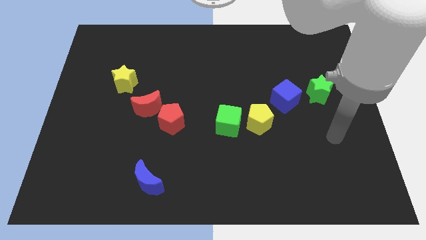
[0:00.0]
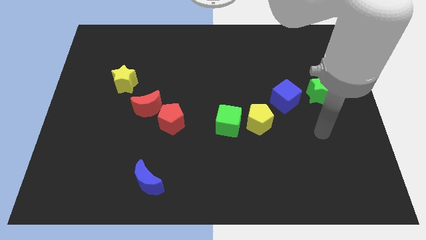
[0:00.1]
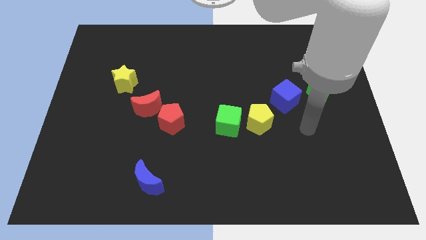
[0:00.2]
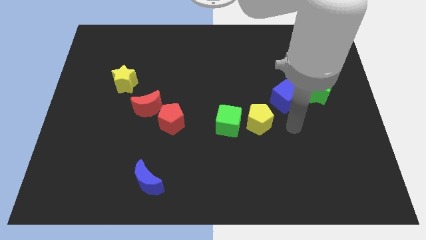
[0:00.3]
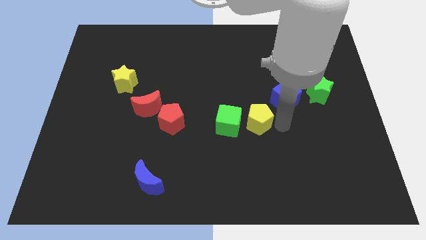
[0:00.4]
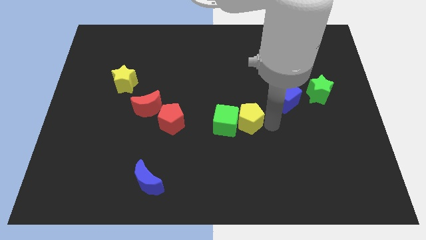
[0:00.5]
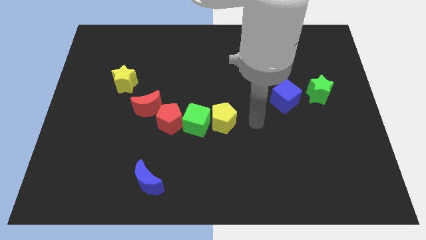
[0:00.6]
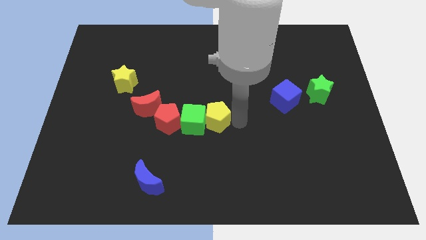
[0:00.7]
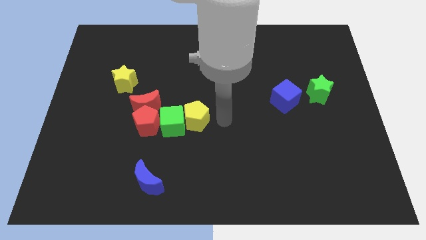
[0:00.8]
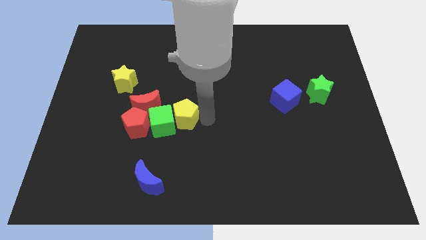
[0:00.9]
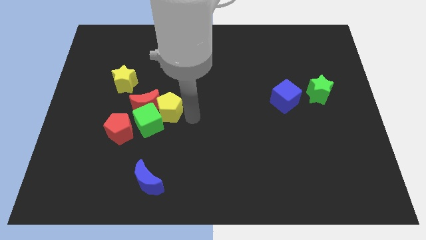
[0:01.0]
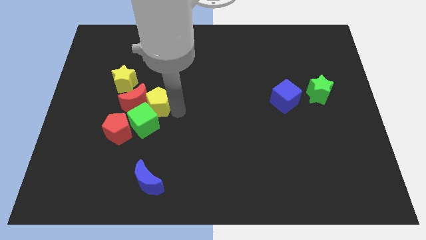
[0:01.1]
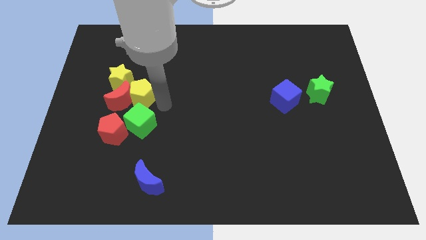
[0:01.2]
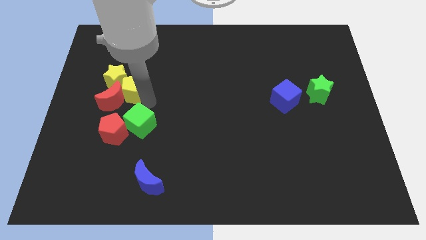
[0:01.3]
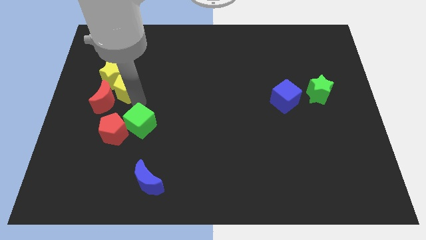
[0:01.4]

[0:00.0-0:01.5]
pull the green cube apart from the yellow pentagon

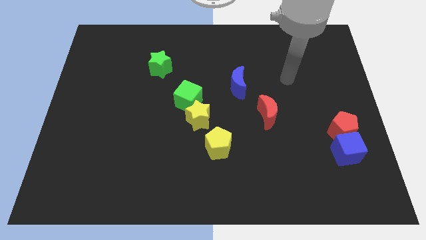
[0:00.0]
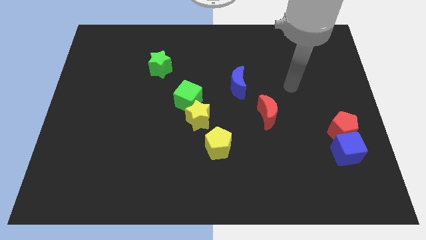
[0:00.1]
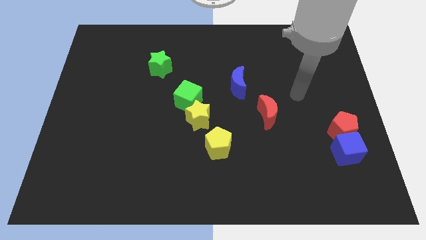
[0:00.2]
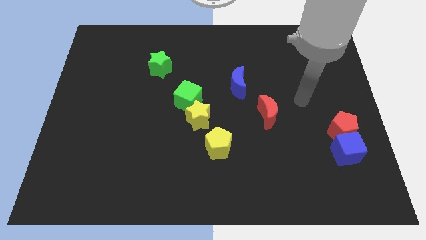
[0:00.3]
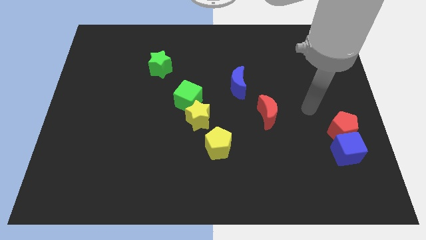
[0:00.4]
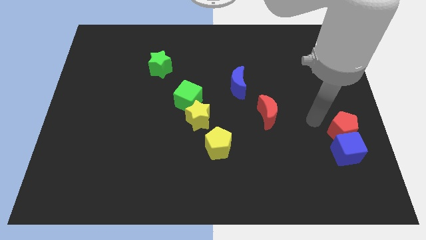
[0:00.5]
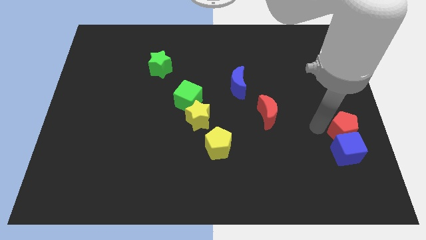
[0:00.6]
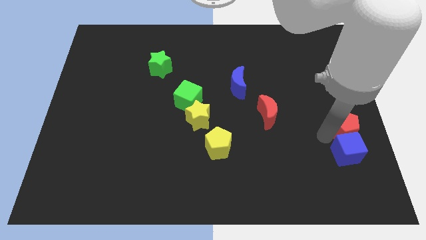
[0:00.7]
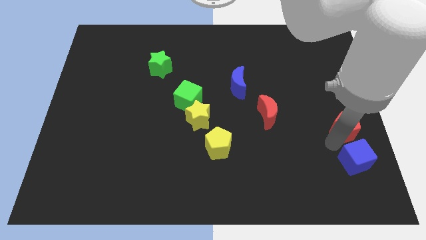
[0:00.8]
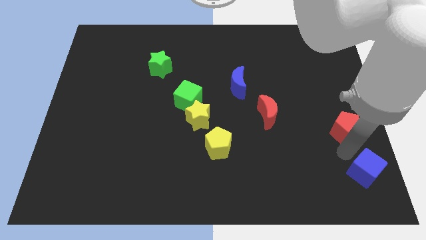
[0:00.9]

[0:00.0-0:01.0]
separate the red pentagon from the blue cube

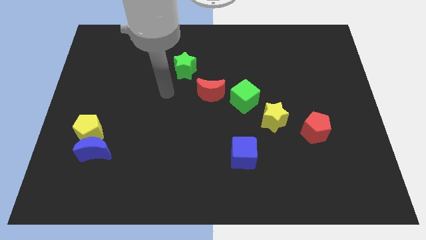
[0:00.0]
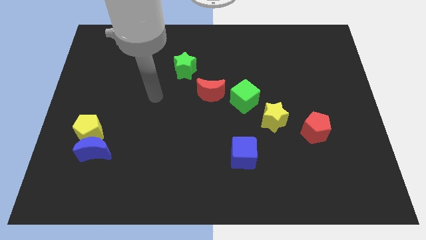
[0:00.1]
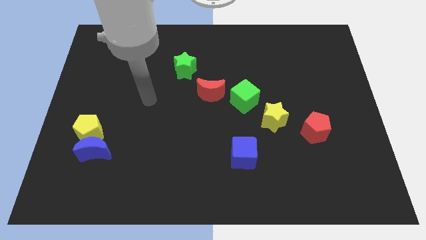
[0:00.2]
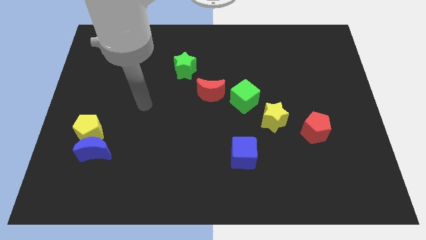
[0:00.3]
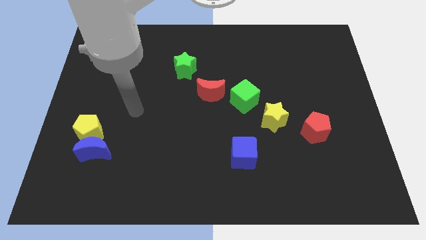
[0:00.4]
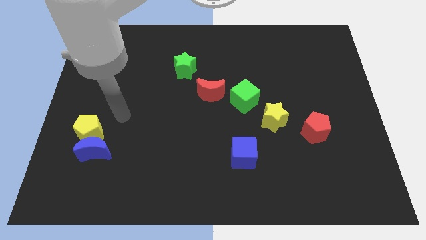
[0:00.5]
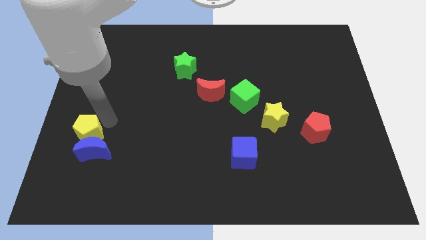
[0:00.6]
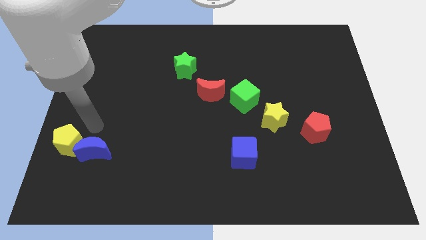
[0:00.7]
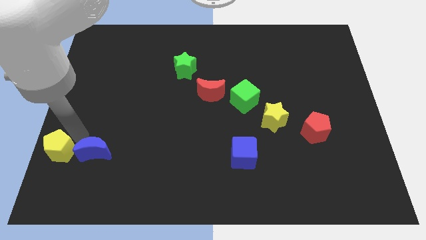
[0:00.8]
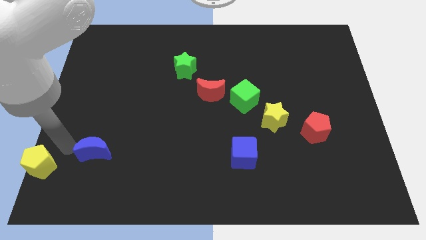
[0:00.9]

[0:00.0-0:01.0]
pull the blue moon apart from the yellow pentagon

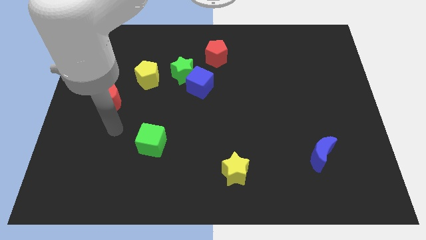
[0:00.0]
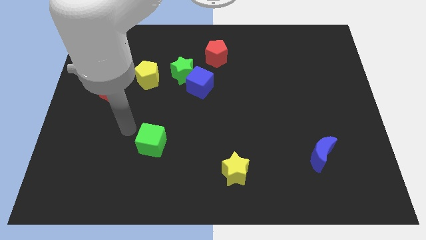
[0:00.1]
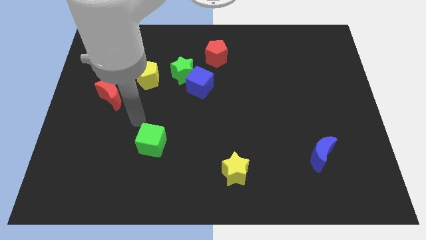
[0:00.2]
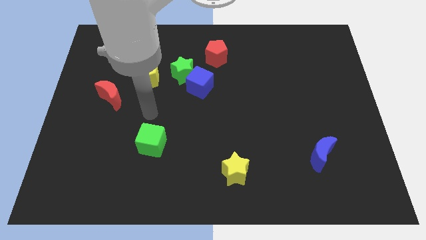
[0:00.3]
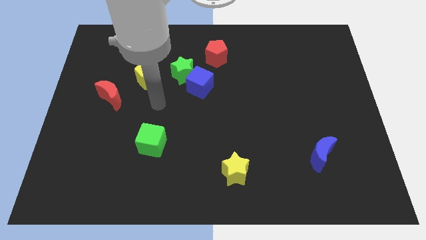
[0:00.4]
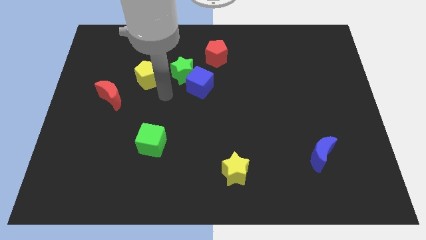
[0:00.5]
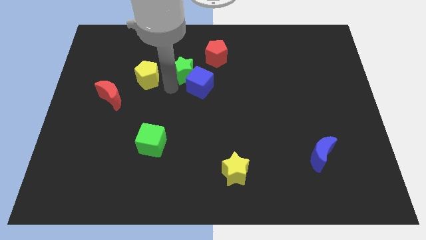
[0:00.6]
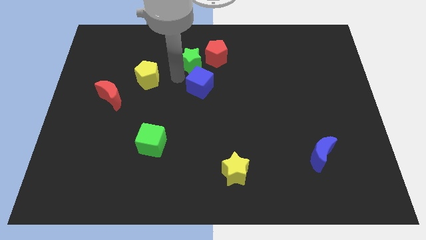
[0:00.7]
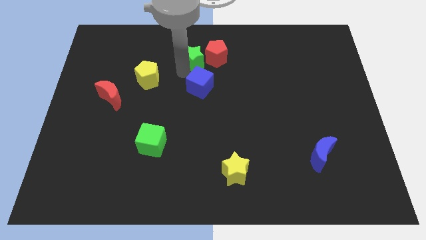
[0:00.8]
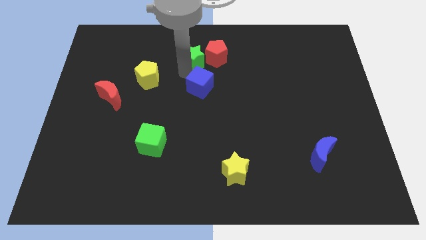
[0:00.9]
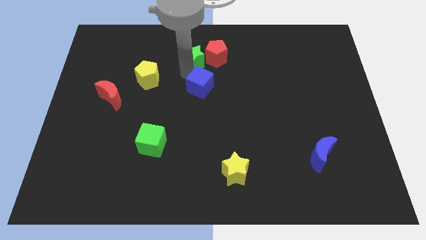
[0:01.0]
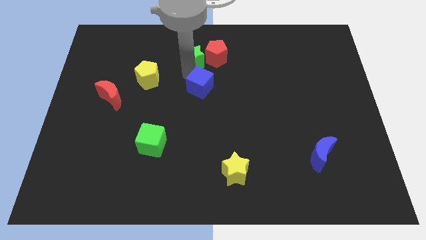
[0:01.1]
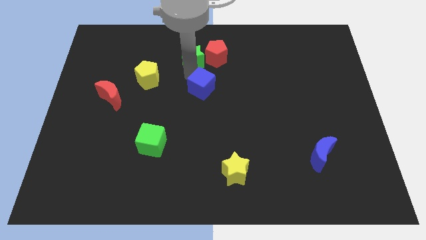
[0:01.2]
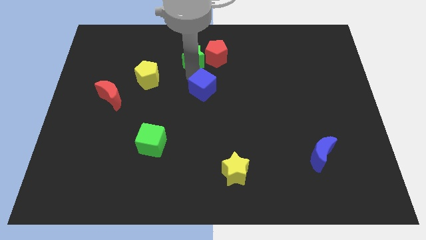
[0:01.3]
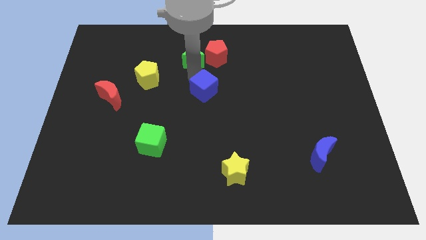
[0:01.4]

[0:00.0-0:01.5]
pull the blue cube apart from the green star

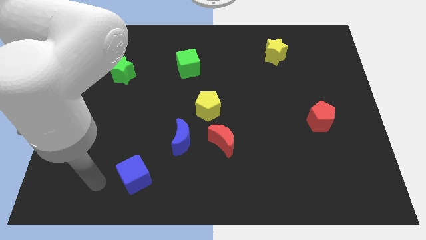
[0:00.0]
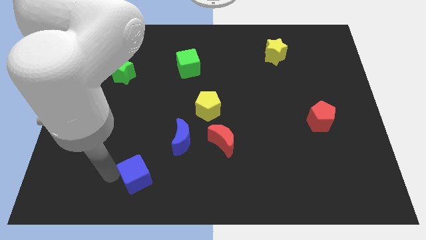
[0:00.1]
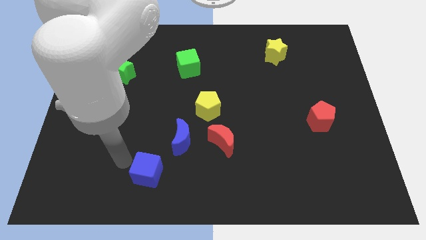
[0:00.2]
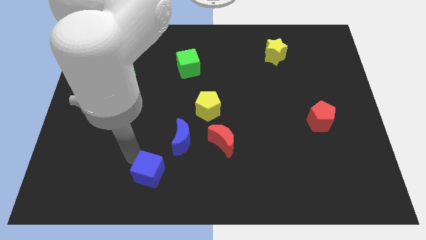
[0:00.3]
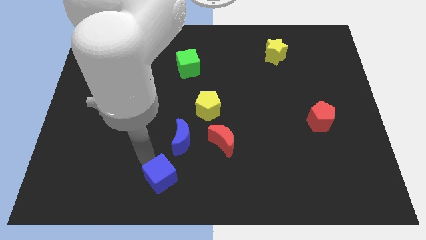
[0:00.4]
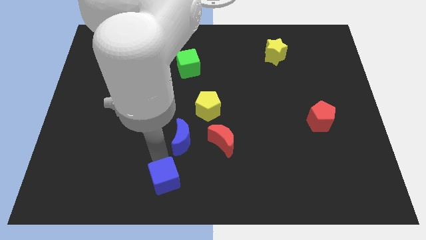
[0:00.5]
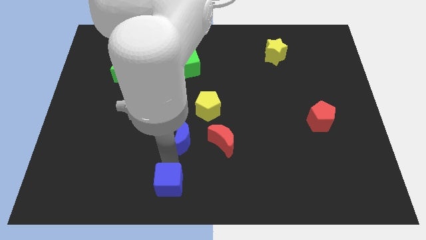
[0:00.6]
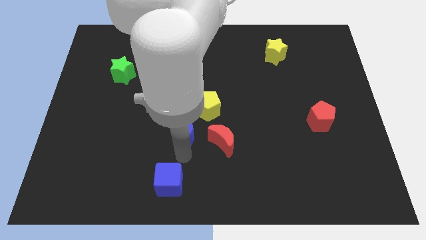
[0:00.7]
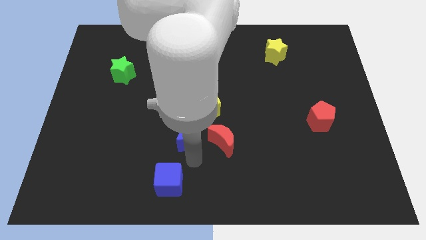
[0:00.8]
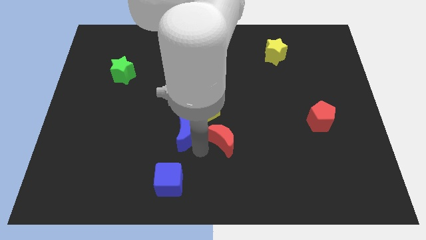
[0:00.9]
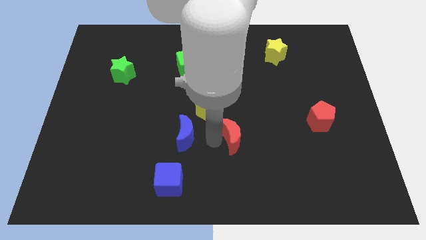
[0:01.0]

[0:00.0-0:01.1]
pull the blue moon apart from the red moon

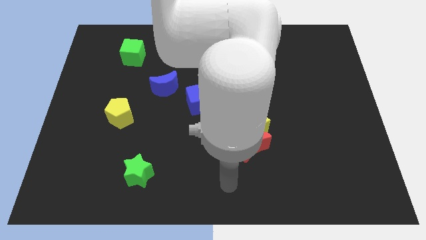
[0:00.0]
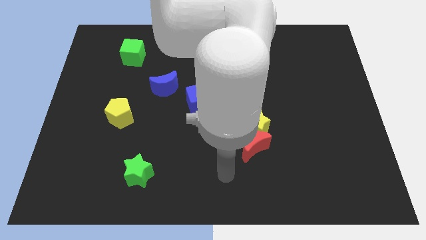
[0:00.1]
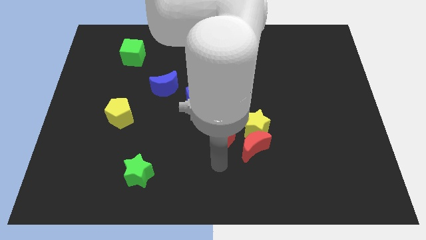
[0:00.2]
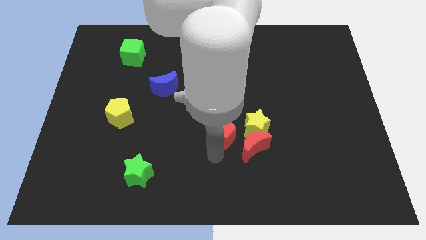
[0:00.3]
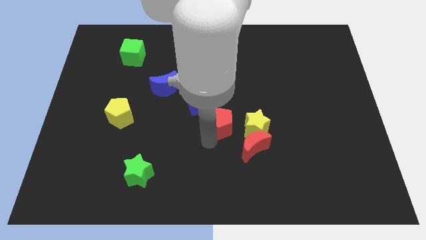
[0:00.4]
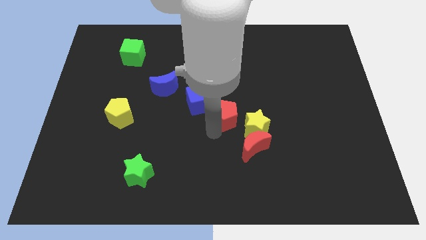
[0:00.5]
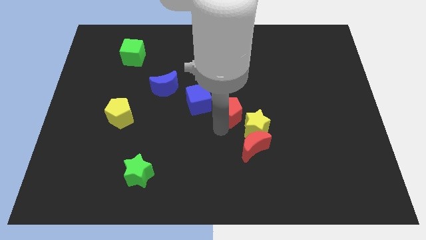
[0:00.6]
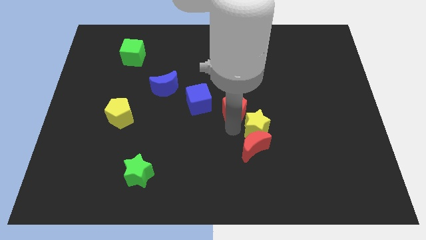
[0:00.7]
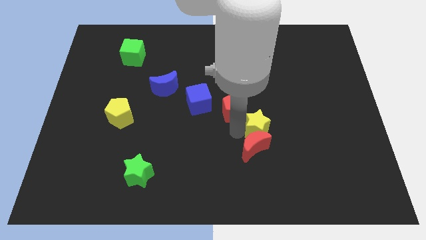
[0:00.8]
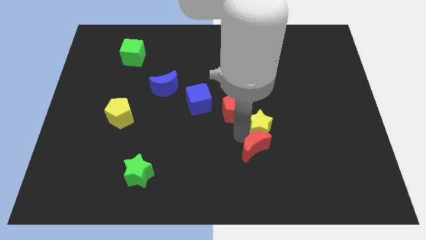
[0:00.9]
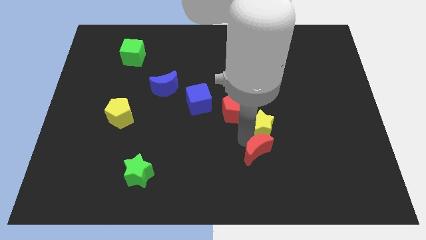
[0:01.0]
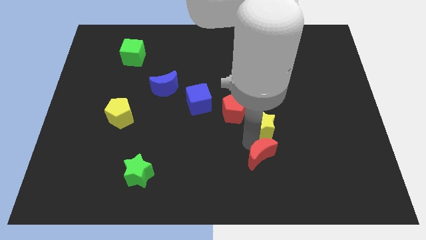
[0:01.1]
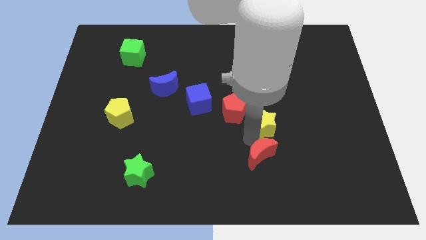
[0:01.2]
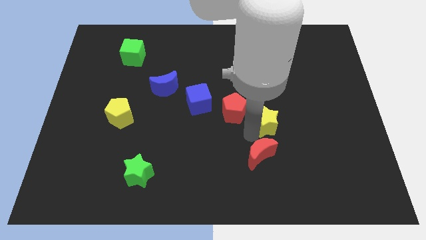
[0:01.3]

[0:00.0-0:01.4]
pull the red moon apart from the yellow star and red pentagon

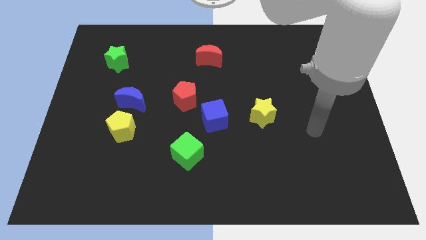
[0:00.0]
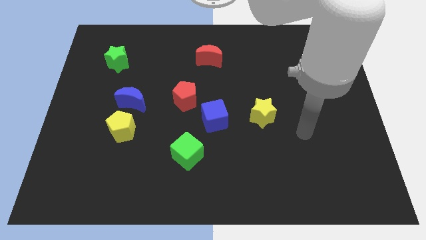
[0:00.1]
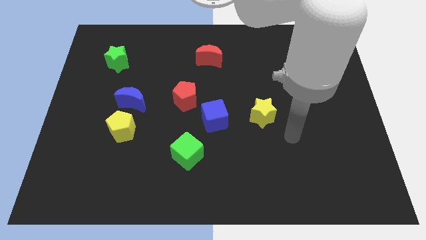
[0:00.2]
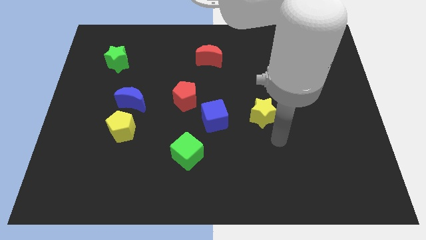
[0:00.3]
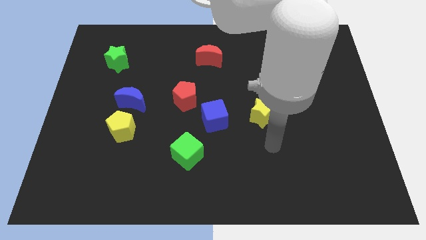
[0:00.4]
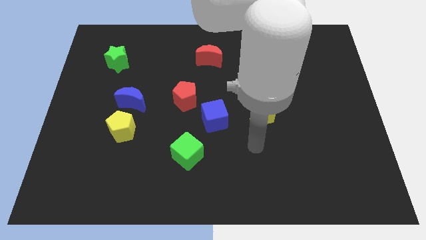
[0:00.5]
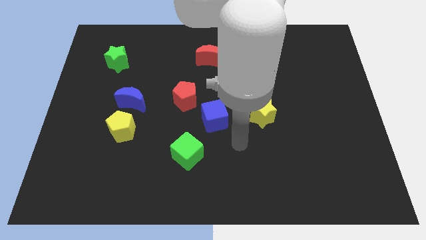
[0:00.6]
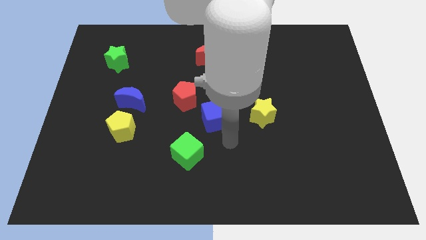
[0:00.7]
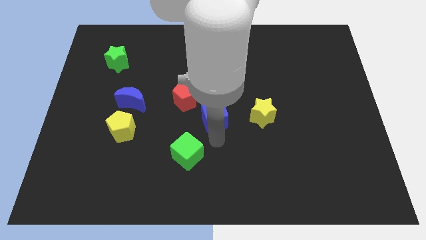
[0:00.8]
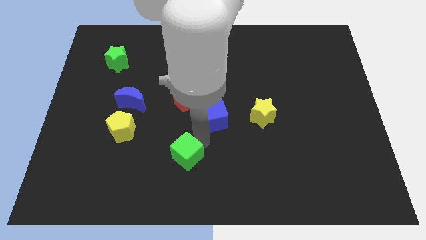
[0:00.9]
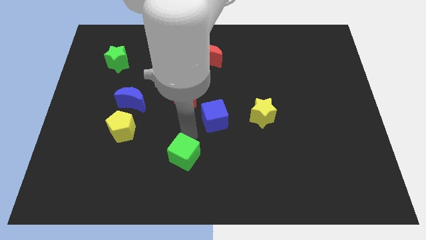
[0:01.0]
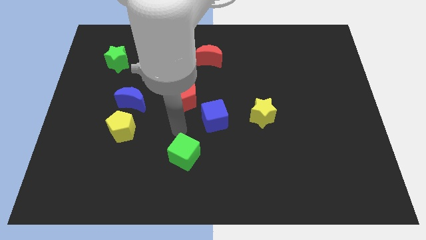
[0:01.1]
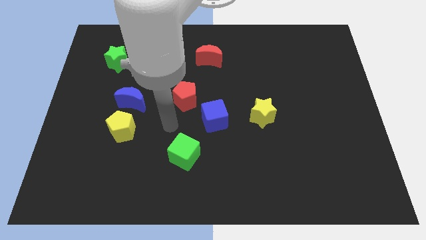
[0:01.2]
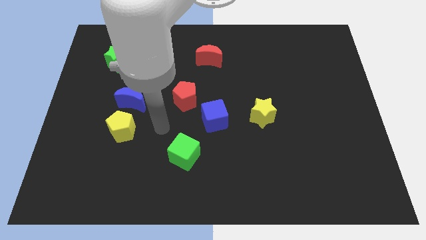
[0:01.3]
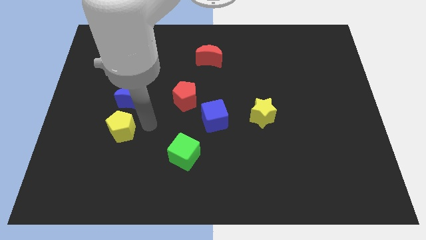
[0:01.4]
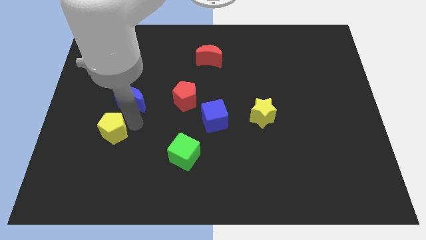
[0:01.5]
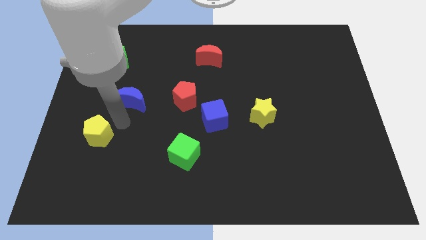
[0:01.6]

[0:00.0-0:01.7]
separate the blue moon from the yellow pentagon

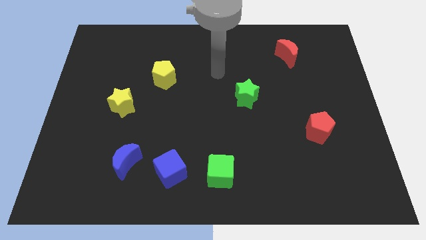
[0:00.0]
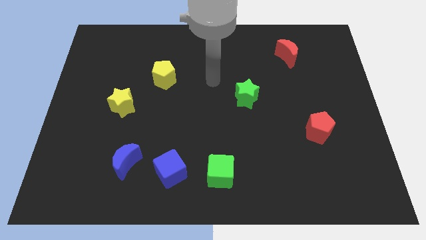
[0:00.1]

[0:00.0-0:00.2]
pull the blue moon apart from the blue cube
